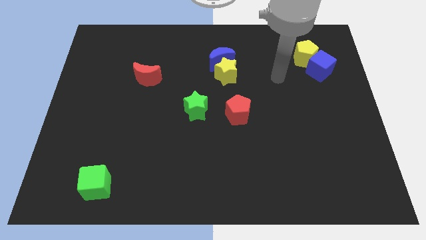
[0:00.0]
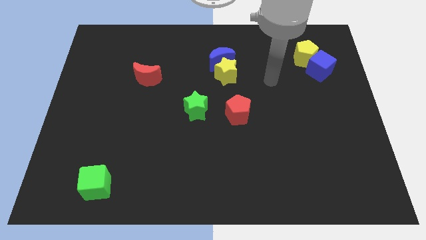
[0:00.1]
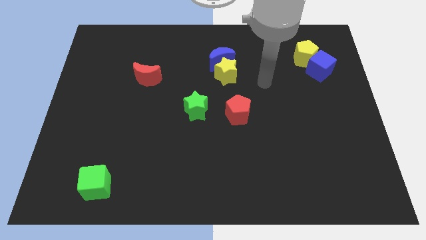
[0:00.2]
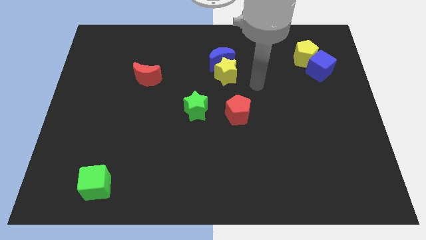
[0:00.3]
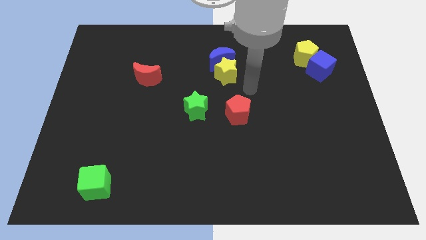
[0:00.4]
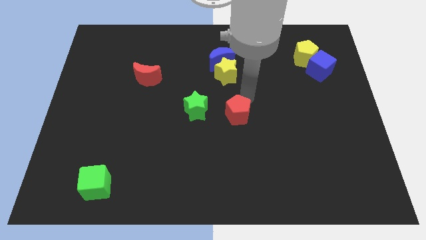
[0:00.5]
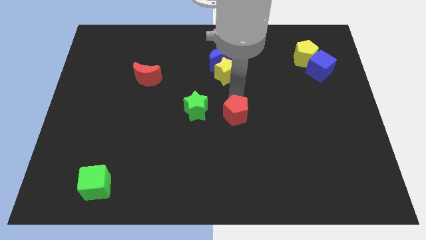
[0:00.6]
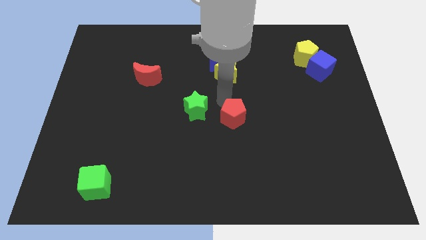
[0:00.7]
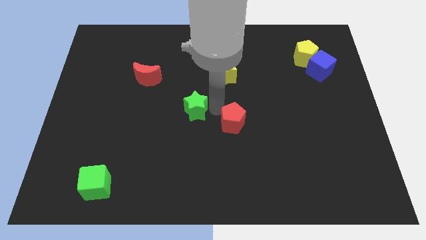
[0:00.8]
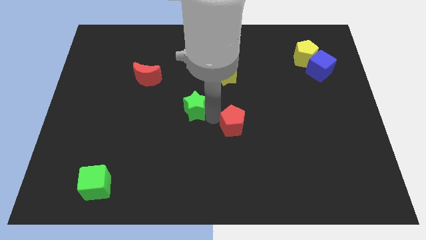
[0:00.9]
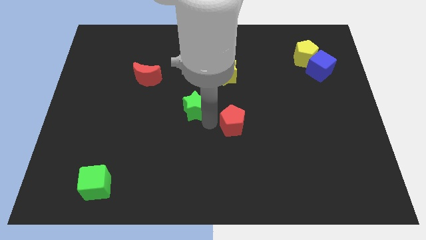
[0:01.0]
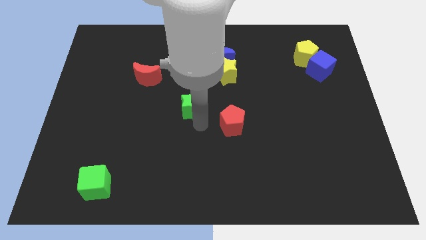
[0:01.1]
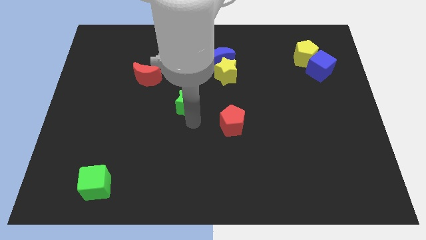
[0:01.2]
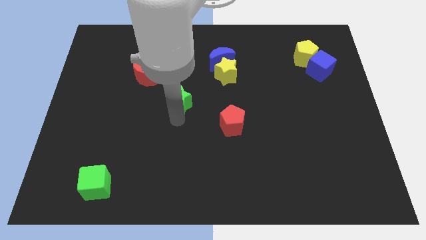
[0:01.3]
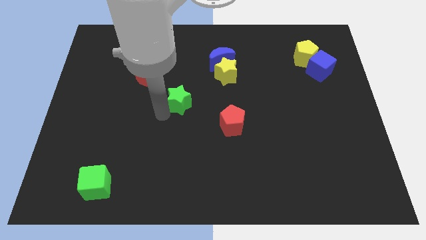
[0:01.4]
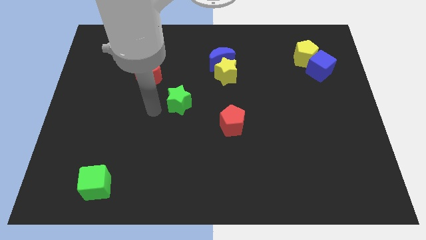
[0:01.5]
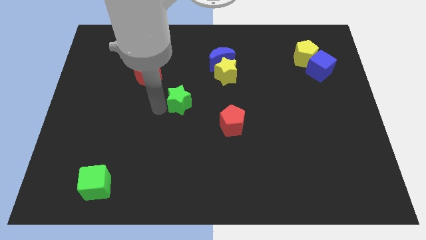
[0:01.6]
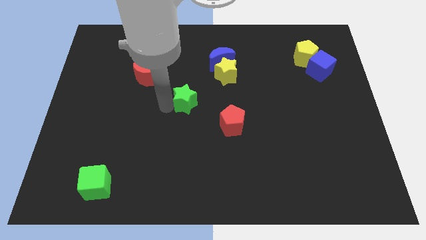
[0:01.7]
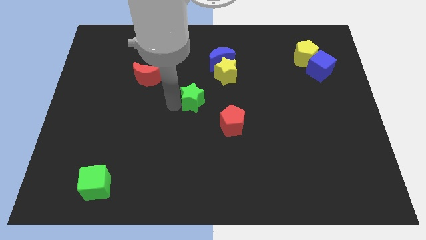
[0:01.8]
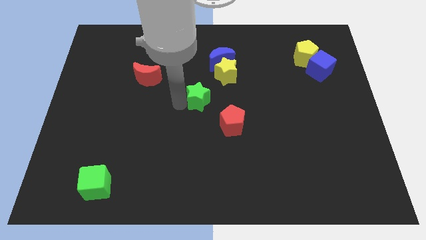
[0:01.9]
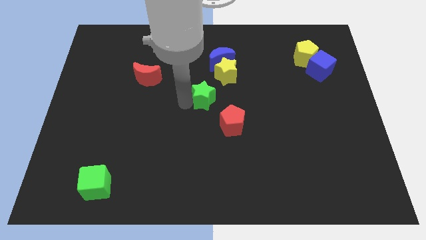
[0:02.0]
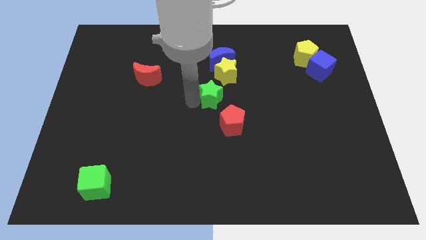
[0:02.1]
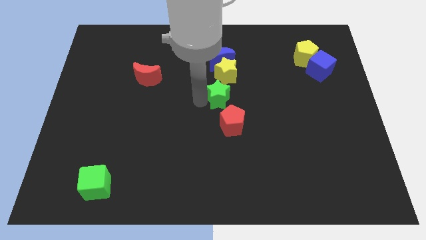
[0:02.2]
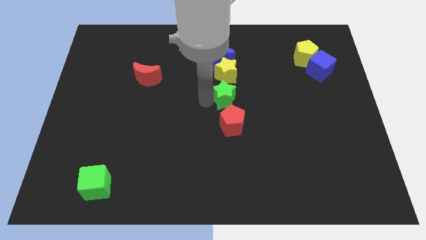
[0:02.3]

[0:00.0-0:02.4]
push the green star diagonally up and to the right somewhat

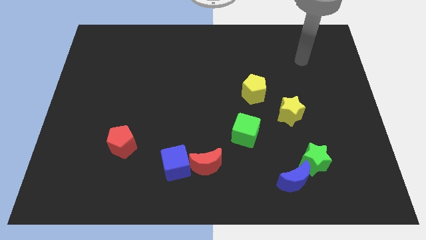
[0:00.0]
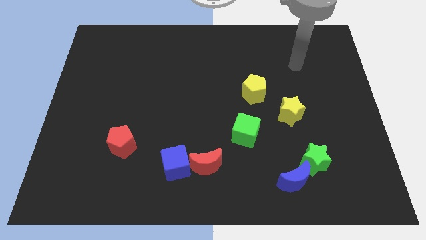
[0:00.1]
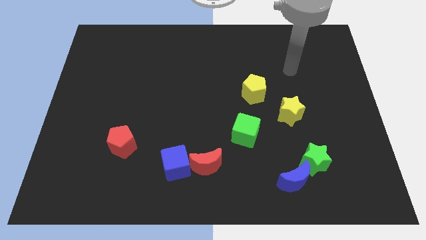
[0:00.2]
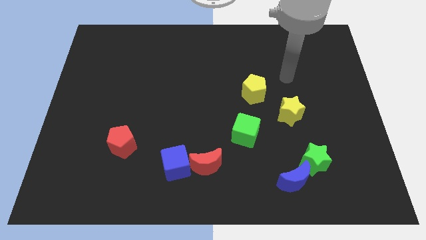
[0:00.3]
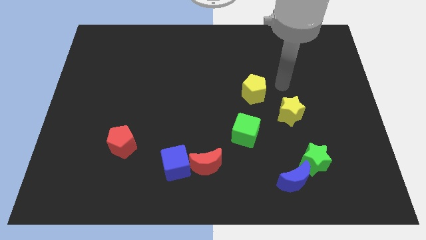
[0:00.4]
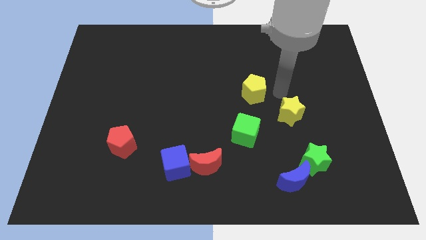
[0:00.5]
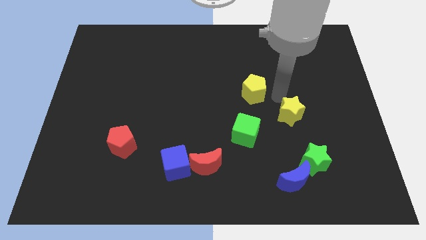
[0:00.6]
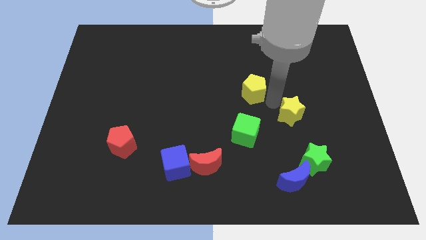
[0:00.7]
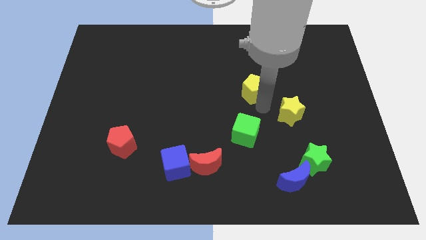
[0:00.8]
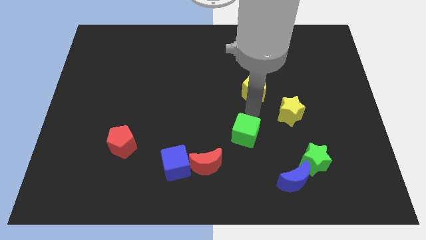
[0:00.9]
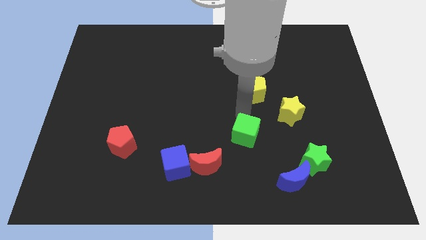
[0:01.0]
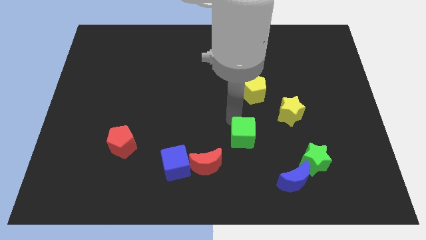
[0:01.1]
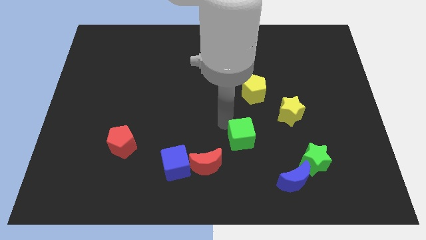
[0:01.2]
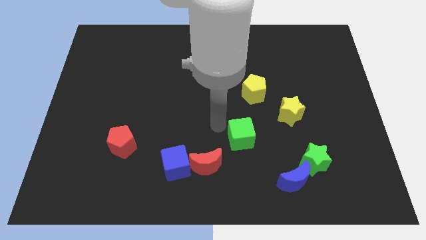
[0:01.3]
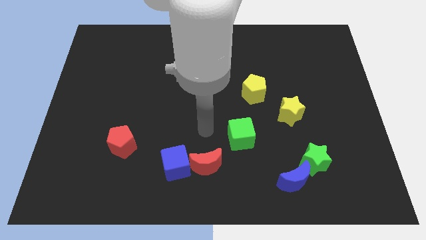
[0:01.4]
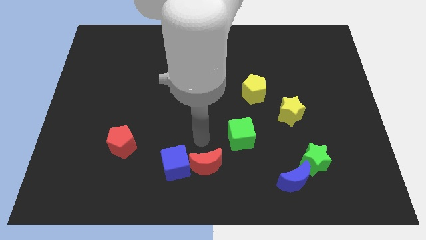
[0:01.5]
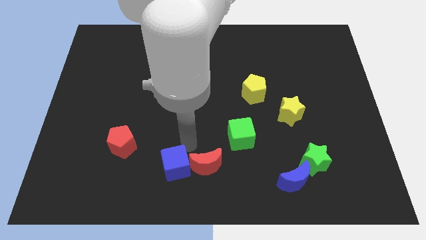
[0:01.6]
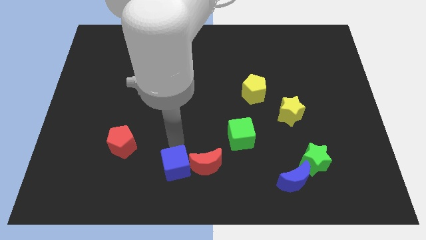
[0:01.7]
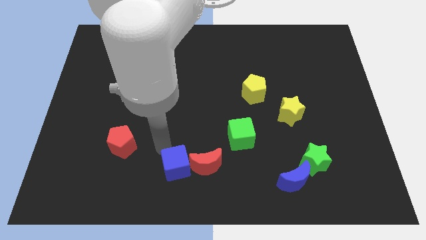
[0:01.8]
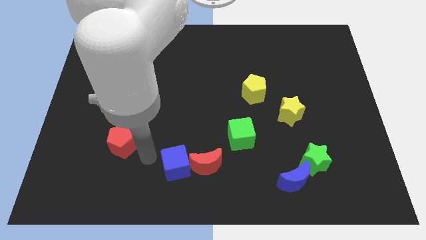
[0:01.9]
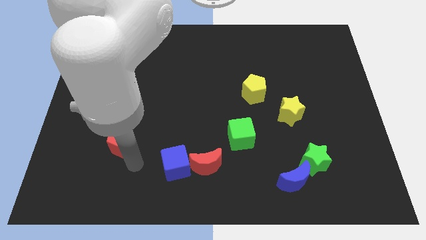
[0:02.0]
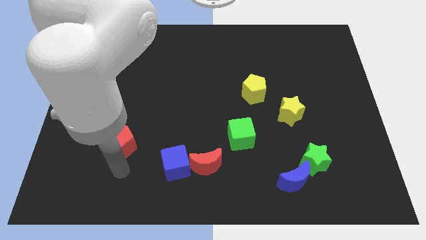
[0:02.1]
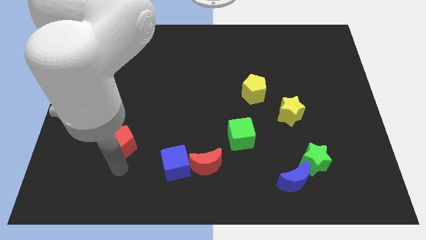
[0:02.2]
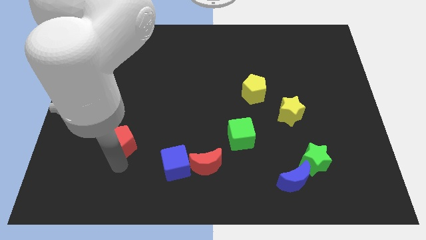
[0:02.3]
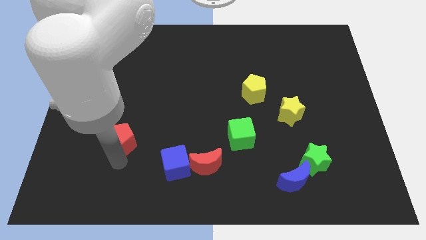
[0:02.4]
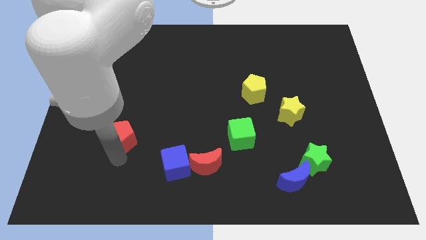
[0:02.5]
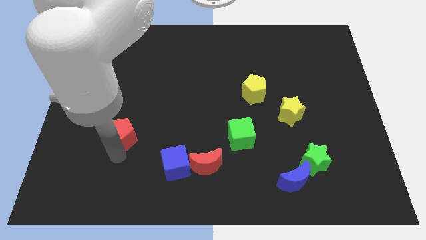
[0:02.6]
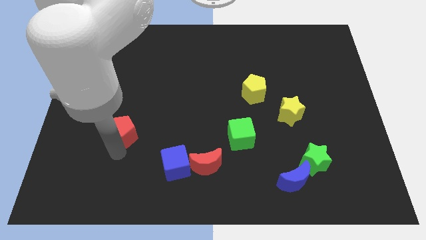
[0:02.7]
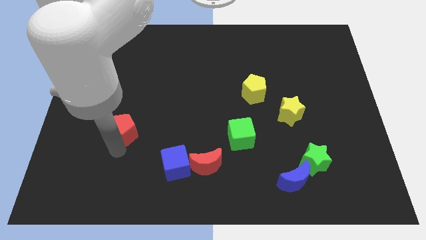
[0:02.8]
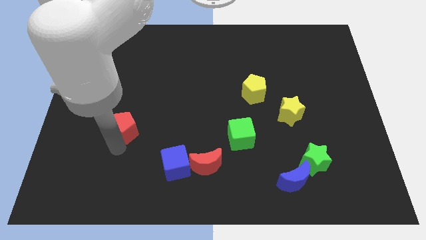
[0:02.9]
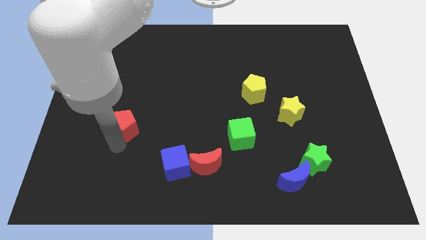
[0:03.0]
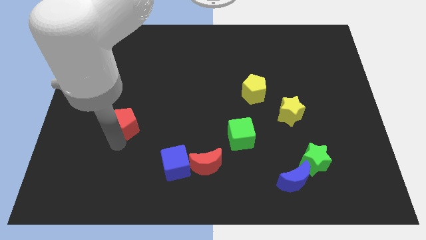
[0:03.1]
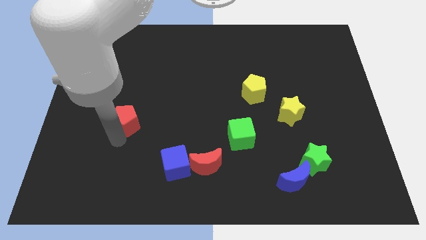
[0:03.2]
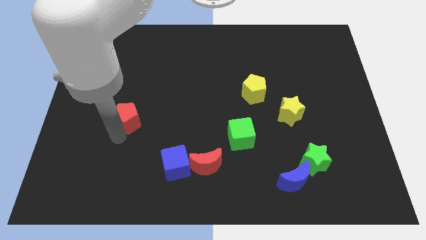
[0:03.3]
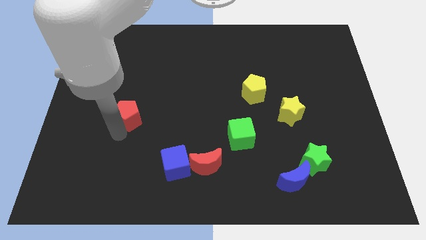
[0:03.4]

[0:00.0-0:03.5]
push the red pentagon up a little bit

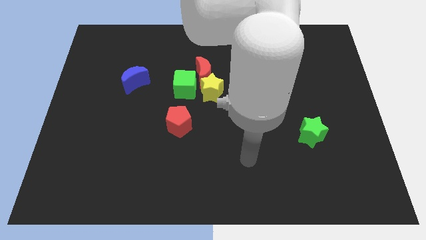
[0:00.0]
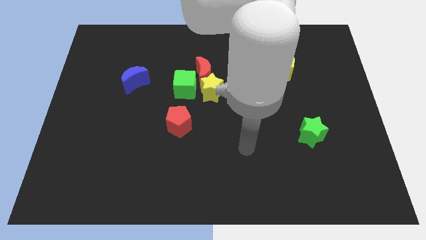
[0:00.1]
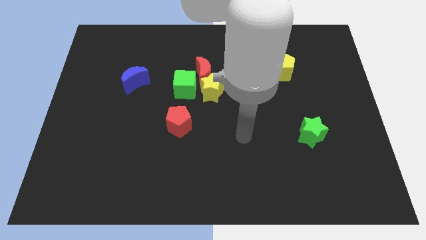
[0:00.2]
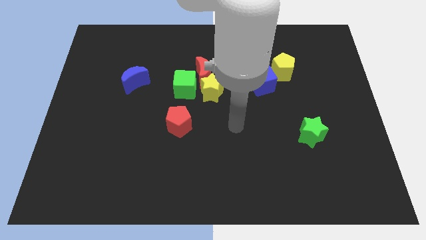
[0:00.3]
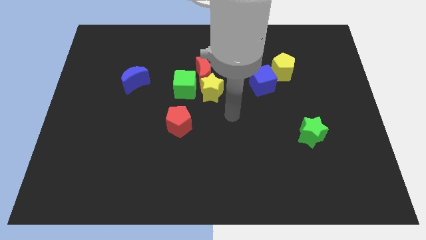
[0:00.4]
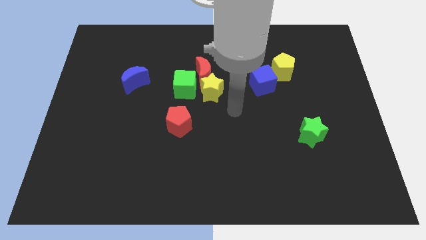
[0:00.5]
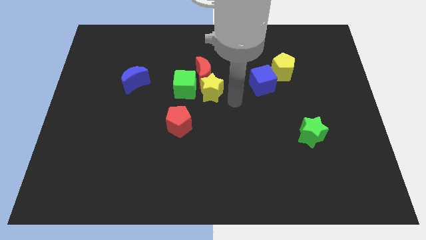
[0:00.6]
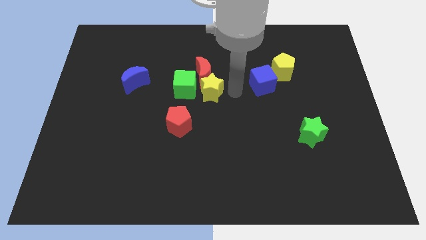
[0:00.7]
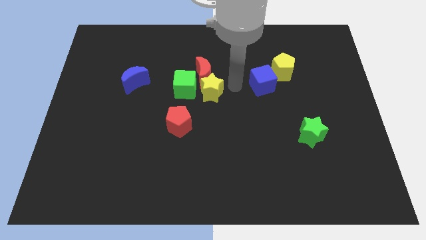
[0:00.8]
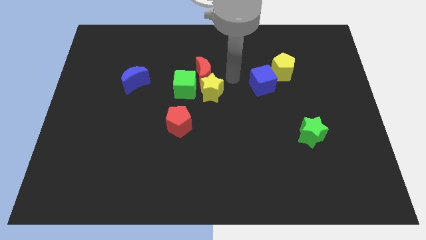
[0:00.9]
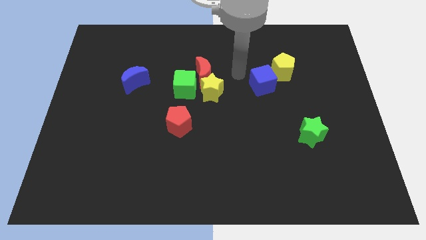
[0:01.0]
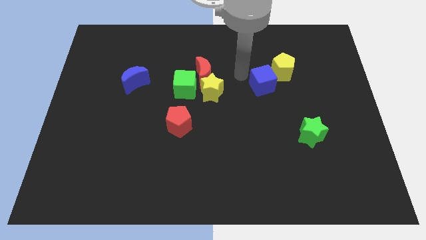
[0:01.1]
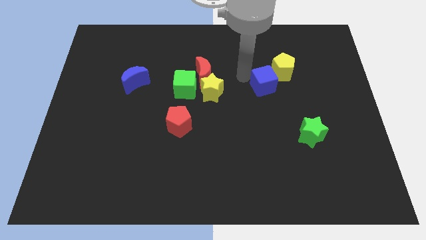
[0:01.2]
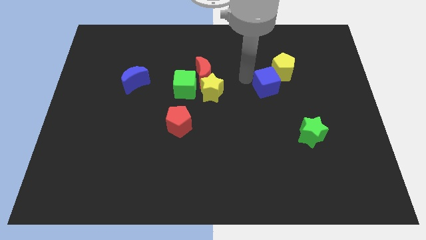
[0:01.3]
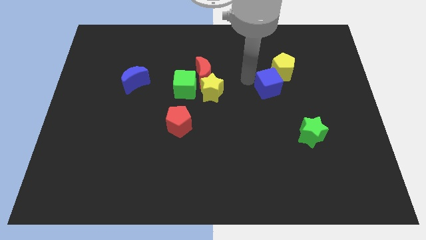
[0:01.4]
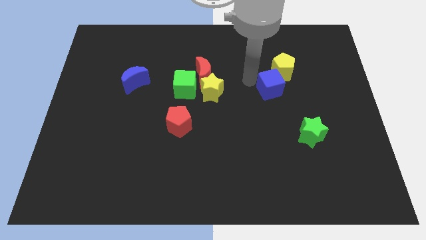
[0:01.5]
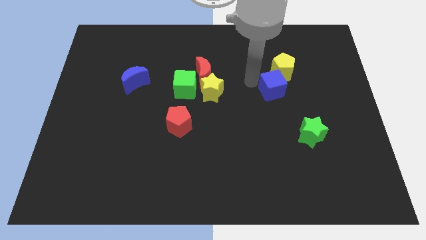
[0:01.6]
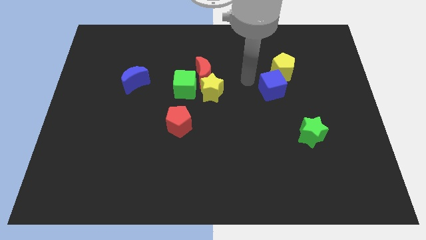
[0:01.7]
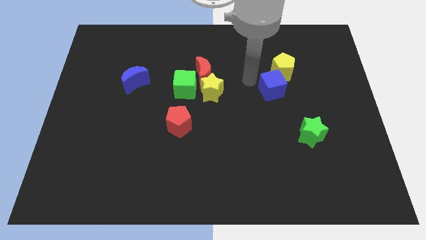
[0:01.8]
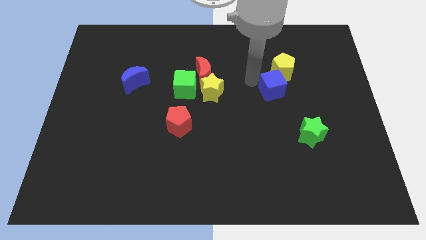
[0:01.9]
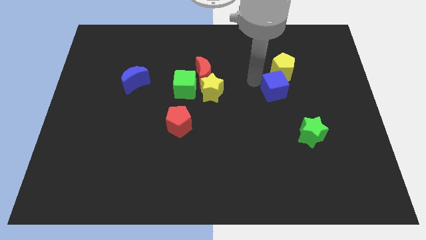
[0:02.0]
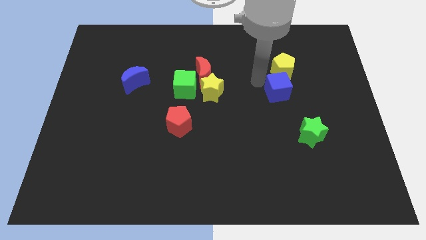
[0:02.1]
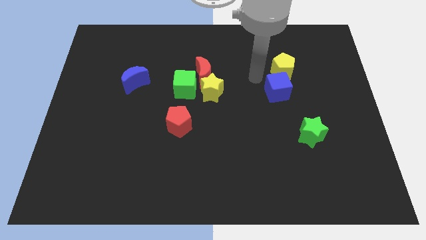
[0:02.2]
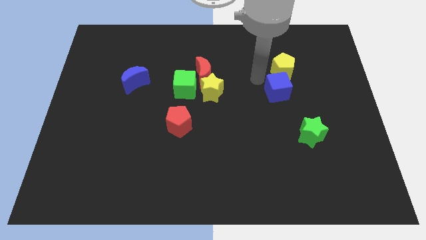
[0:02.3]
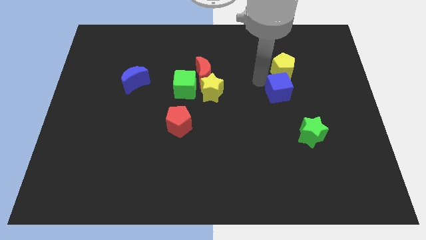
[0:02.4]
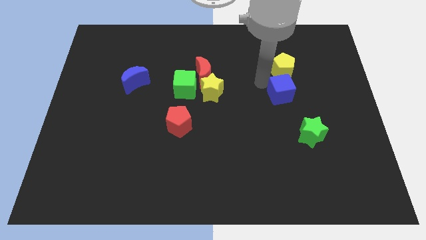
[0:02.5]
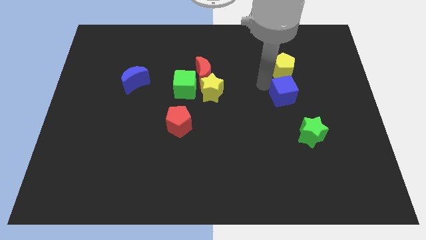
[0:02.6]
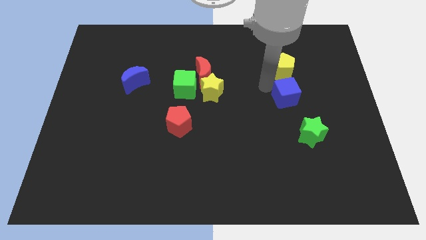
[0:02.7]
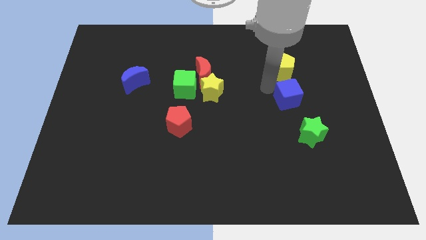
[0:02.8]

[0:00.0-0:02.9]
slightly push the blue cube diagonally downwards and right
